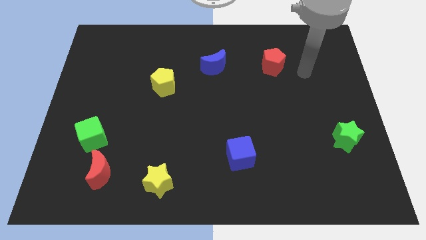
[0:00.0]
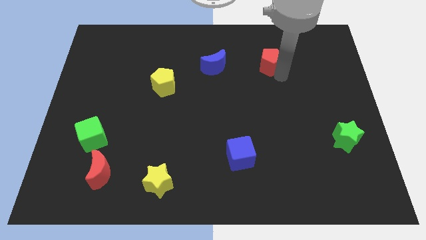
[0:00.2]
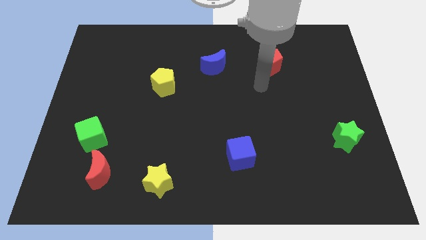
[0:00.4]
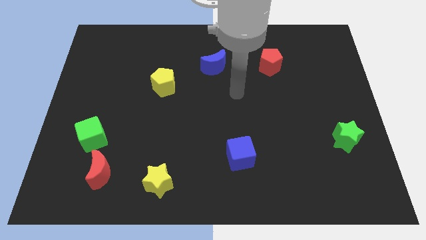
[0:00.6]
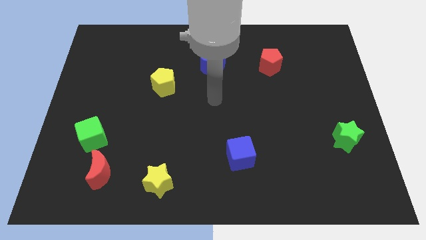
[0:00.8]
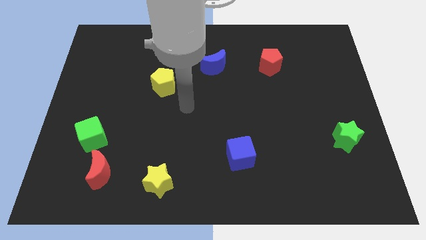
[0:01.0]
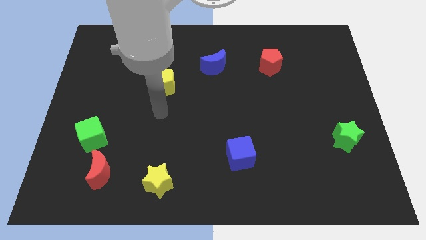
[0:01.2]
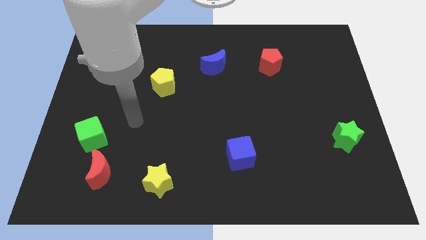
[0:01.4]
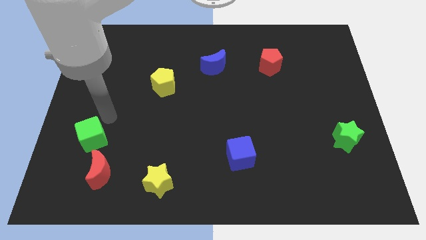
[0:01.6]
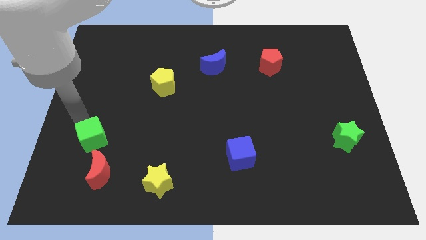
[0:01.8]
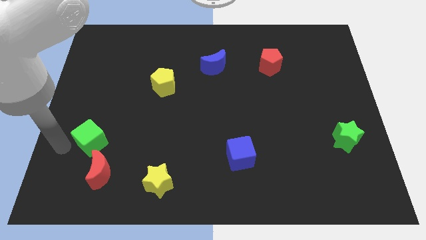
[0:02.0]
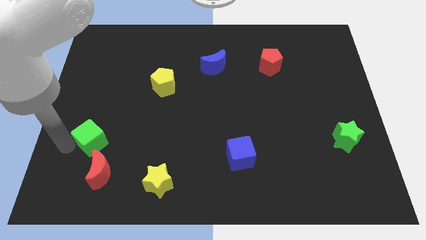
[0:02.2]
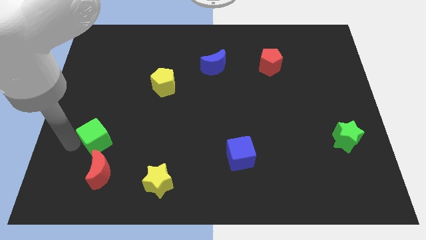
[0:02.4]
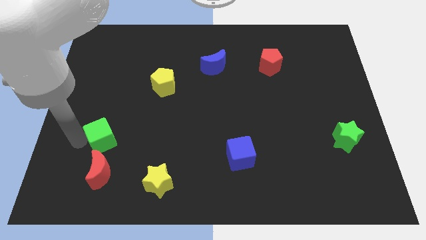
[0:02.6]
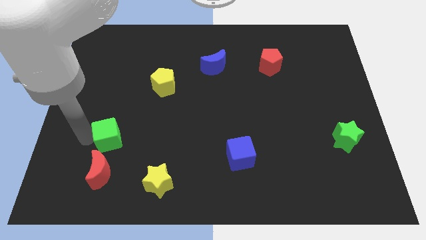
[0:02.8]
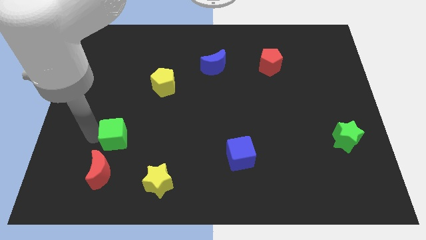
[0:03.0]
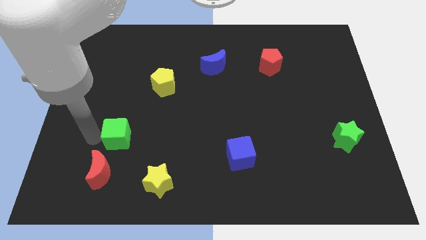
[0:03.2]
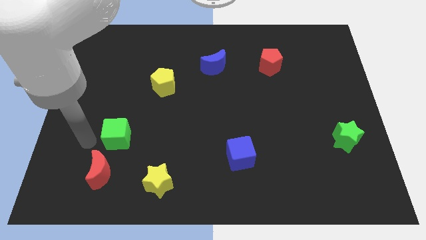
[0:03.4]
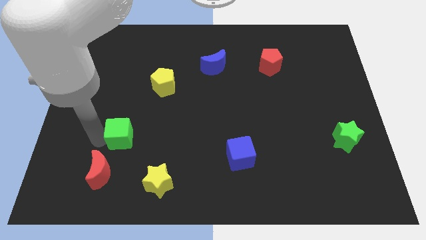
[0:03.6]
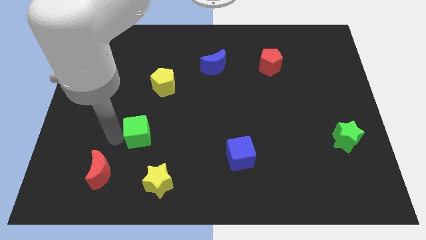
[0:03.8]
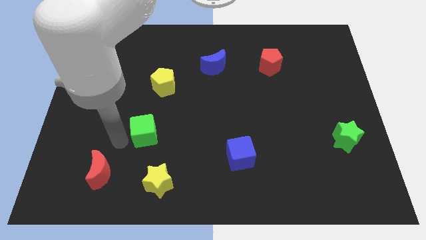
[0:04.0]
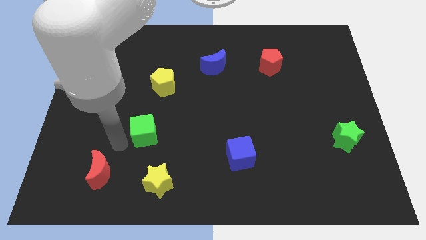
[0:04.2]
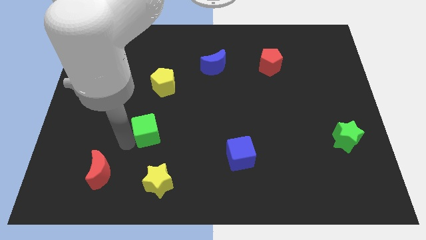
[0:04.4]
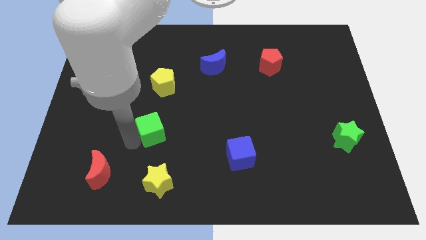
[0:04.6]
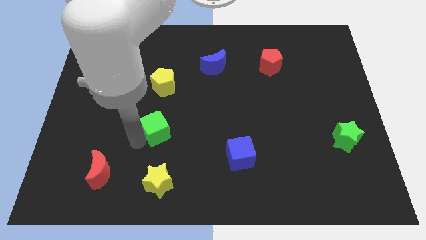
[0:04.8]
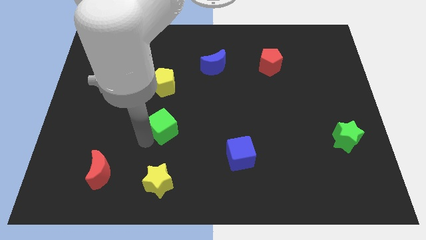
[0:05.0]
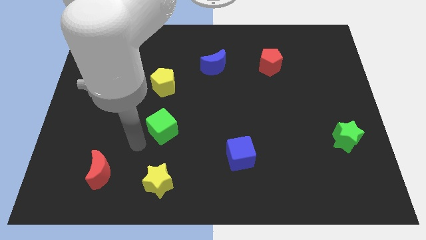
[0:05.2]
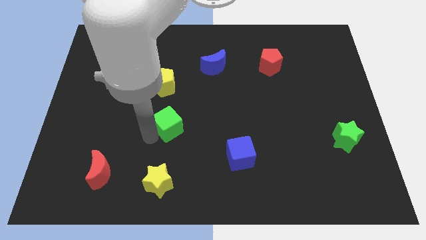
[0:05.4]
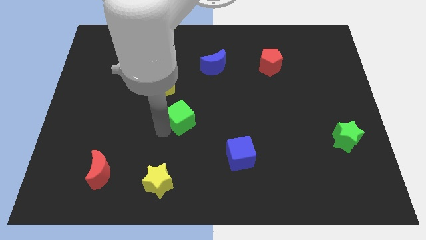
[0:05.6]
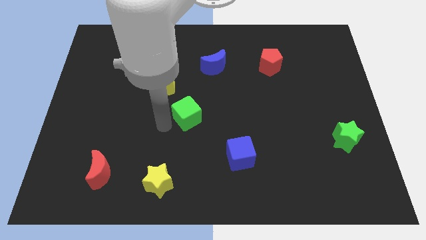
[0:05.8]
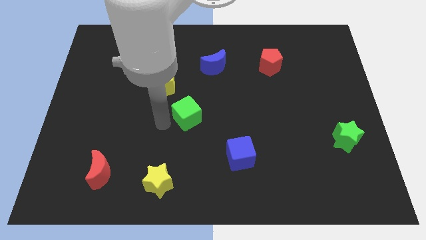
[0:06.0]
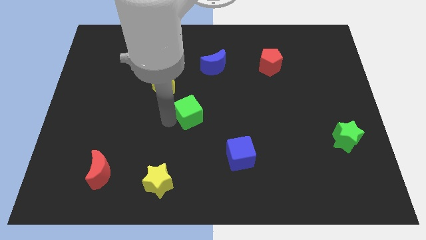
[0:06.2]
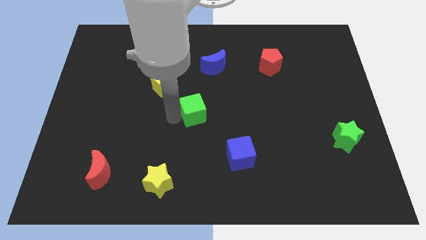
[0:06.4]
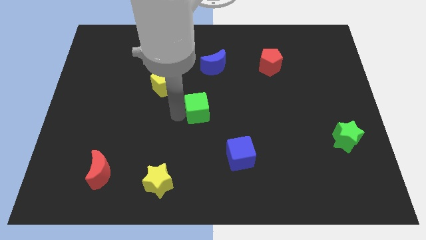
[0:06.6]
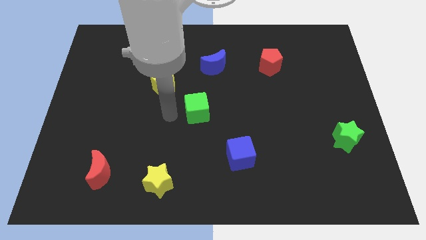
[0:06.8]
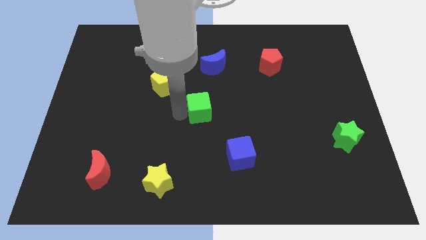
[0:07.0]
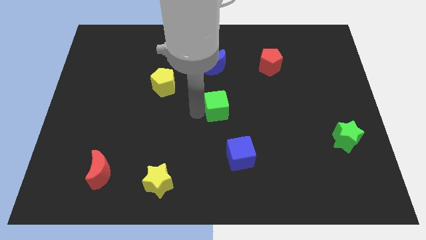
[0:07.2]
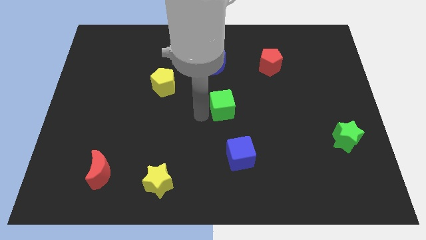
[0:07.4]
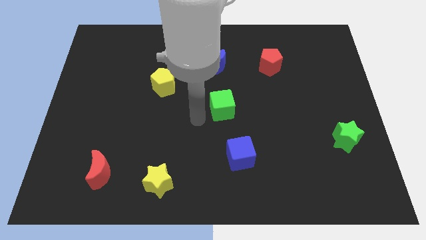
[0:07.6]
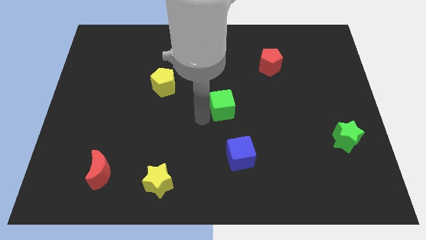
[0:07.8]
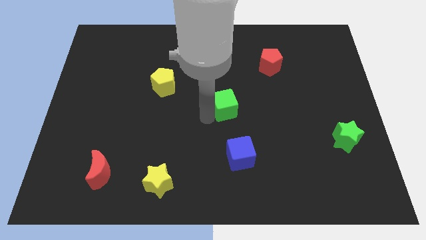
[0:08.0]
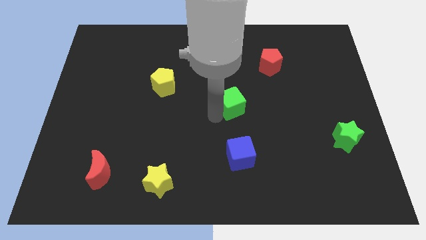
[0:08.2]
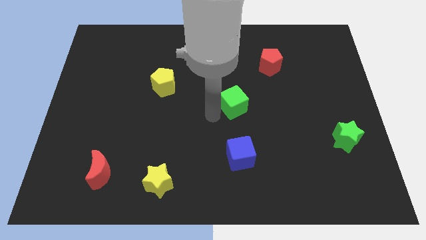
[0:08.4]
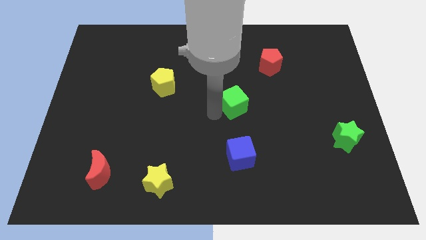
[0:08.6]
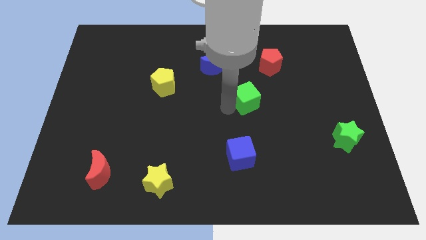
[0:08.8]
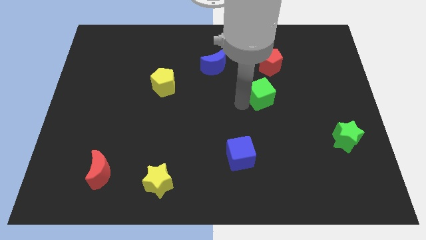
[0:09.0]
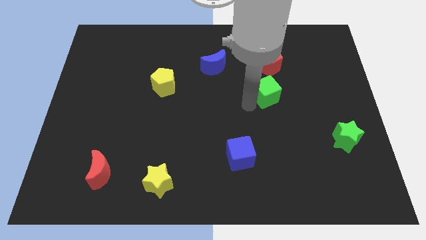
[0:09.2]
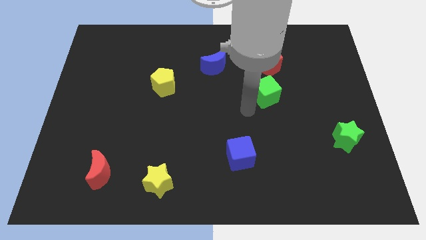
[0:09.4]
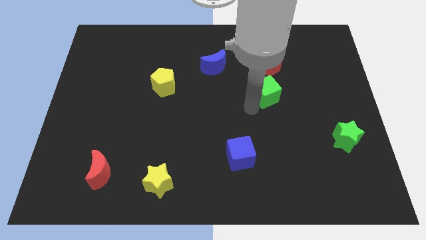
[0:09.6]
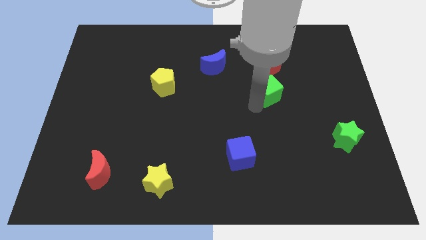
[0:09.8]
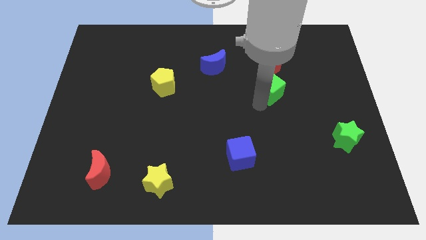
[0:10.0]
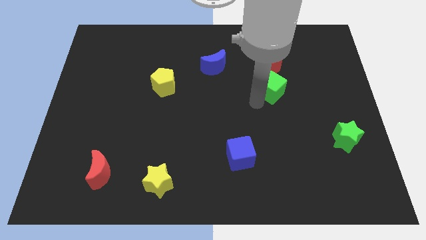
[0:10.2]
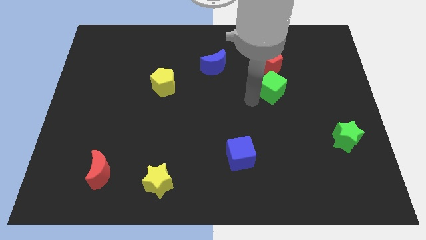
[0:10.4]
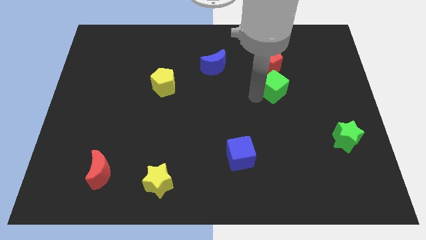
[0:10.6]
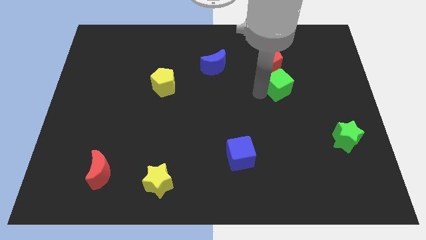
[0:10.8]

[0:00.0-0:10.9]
push the green cube diagonally down and to the right of the red pentagon

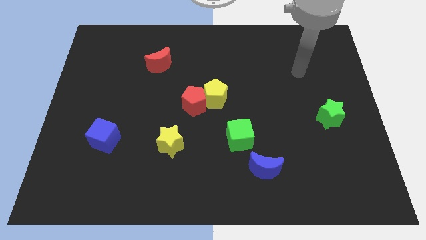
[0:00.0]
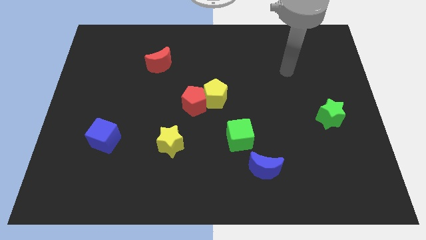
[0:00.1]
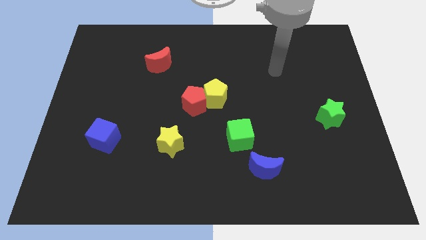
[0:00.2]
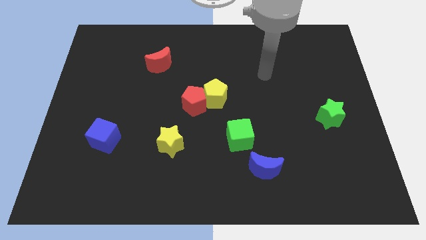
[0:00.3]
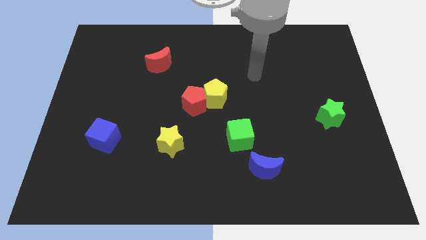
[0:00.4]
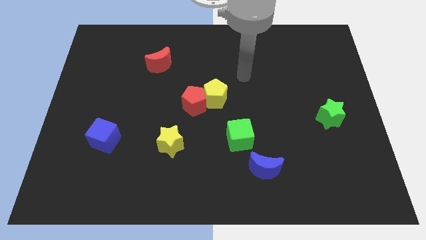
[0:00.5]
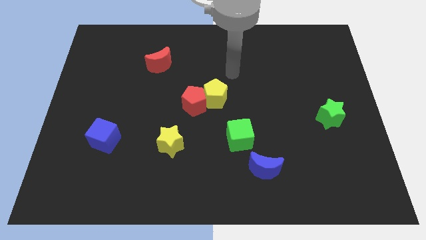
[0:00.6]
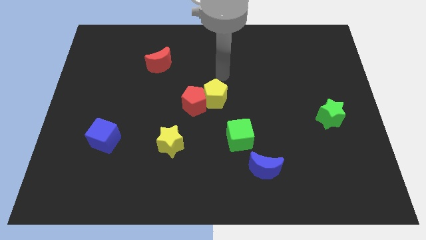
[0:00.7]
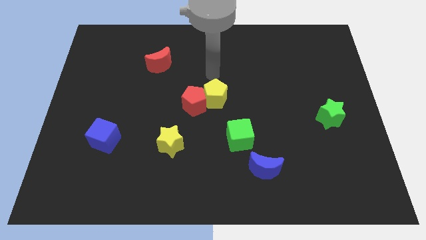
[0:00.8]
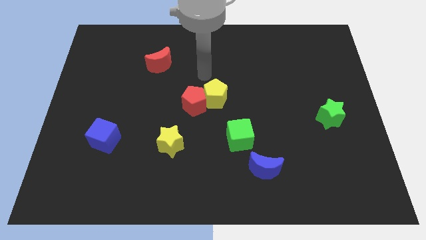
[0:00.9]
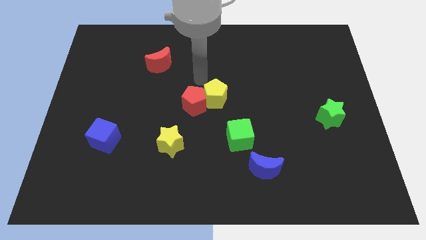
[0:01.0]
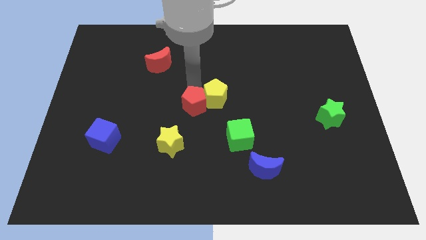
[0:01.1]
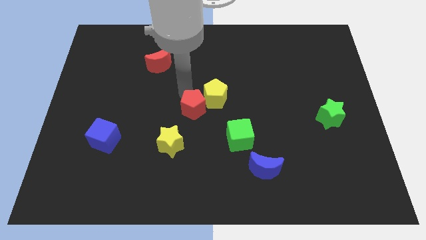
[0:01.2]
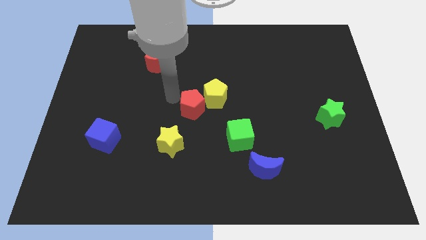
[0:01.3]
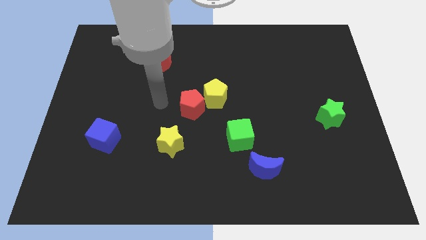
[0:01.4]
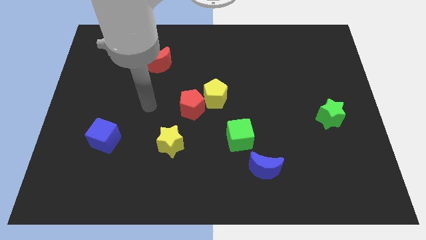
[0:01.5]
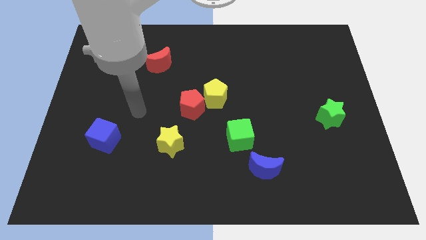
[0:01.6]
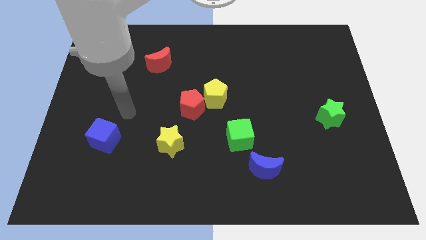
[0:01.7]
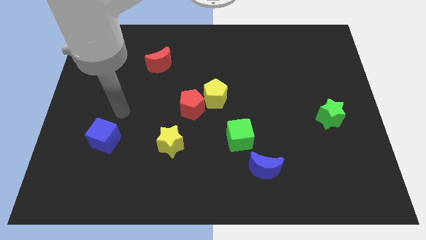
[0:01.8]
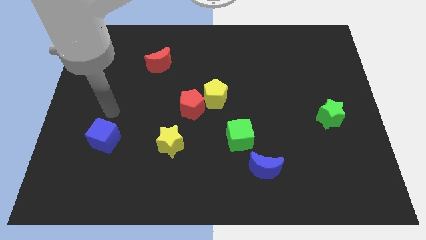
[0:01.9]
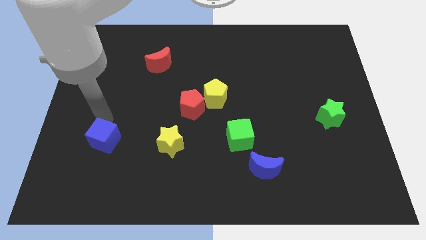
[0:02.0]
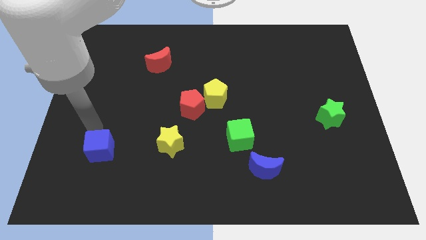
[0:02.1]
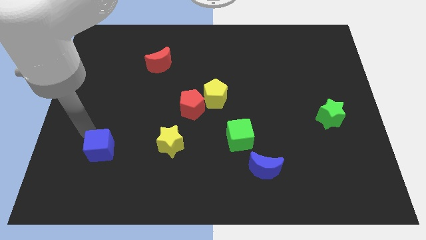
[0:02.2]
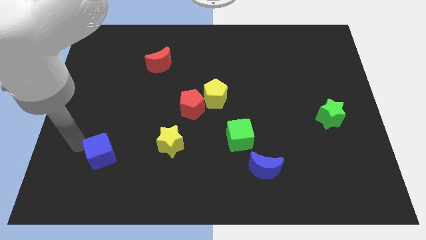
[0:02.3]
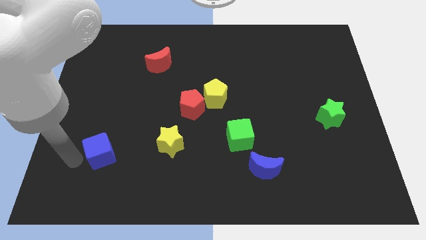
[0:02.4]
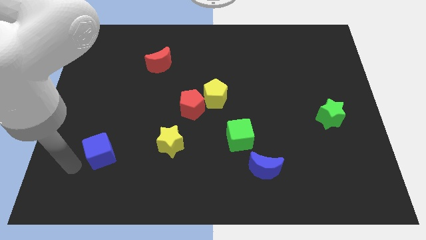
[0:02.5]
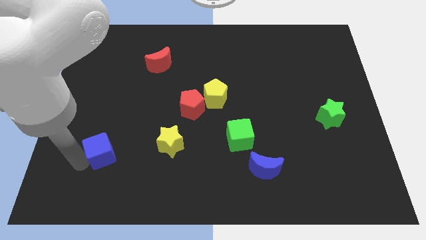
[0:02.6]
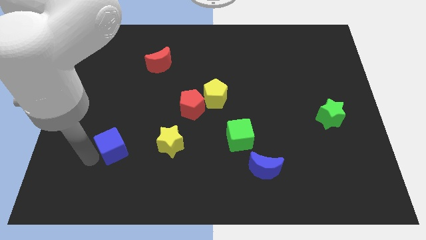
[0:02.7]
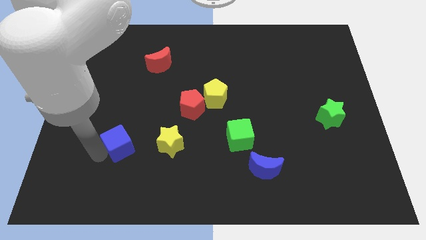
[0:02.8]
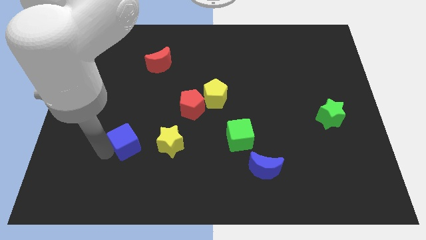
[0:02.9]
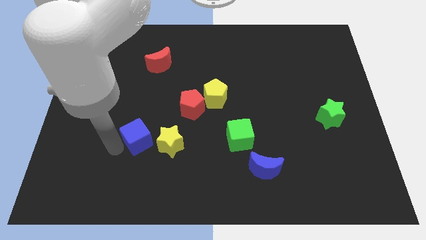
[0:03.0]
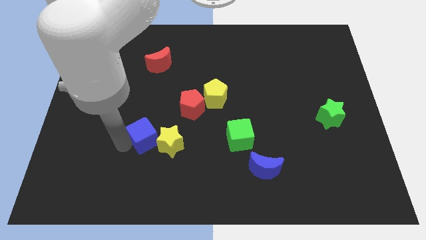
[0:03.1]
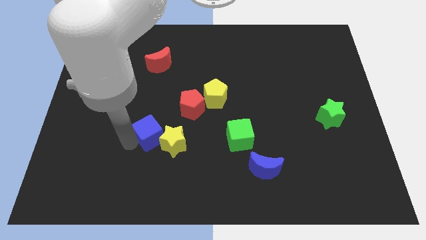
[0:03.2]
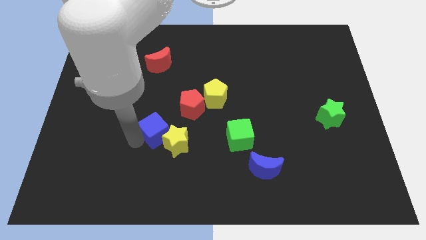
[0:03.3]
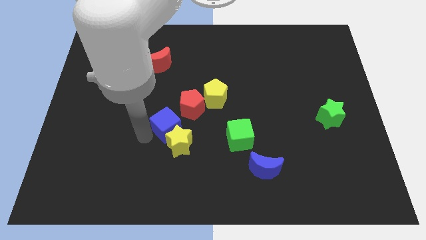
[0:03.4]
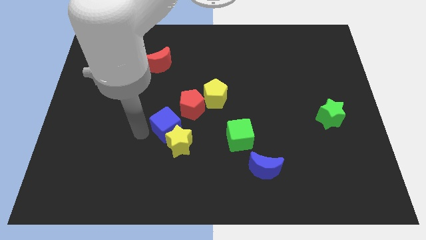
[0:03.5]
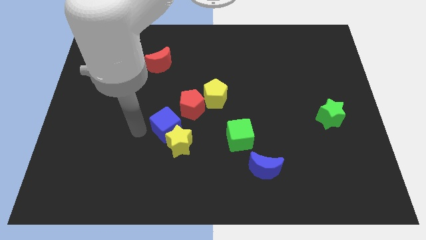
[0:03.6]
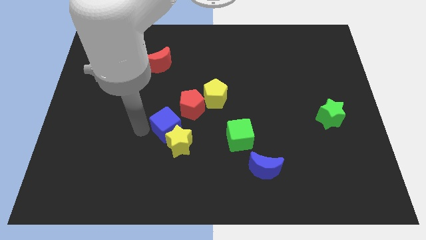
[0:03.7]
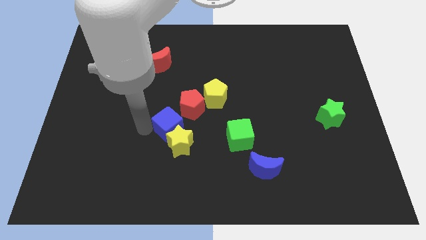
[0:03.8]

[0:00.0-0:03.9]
put the blue cube to the bottom side of the red pentagon
